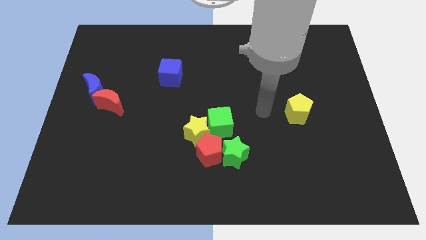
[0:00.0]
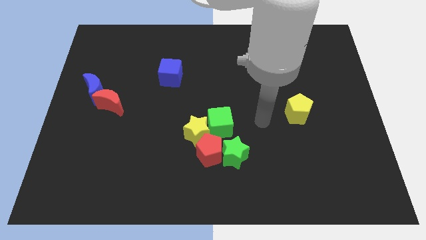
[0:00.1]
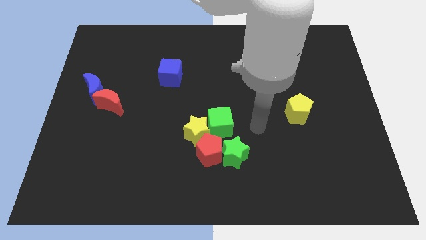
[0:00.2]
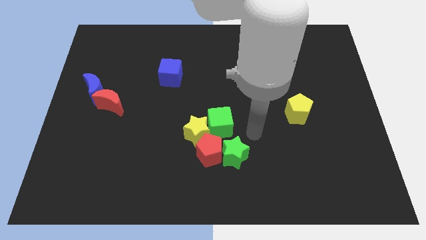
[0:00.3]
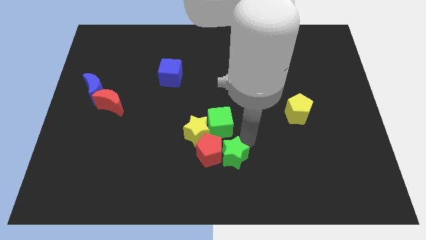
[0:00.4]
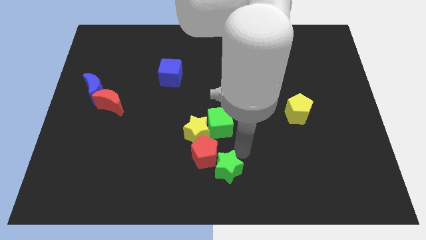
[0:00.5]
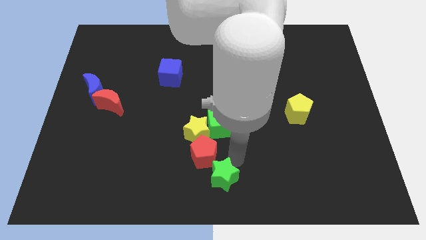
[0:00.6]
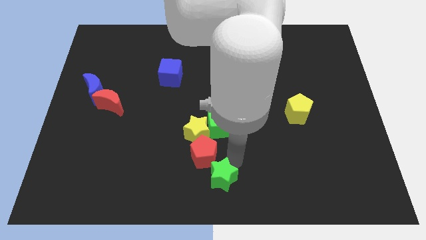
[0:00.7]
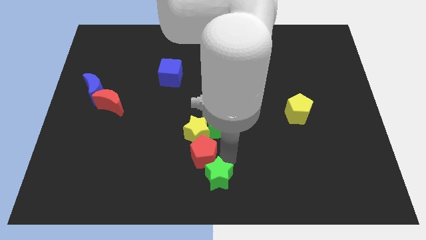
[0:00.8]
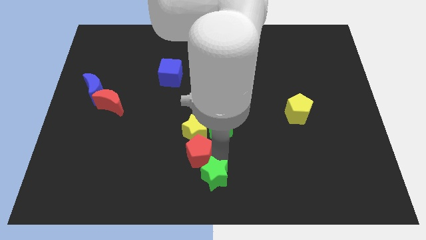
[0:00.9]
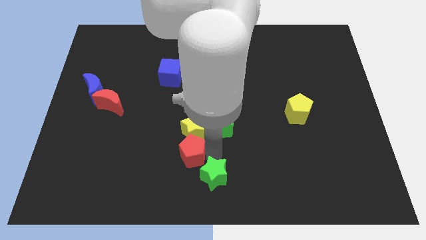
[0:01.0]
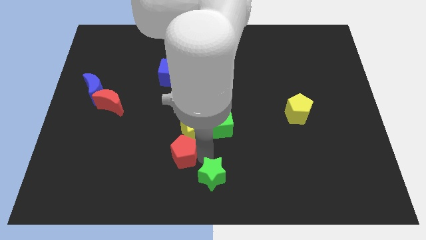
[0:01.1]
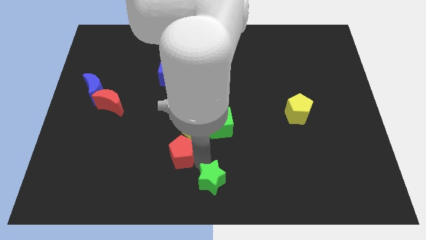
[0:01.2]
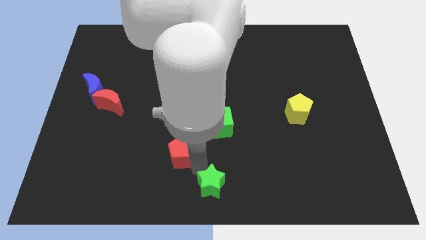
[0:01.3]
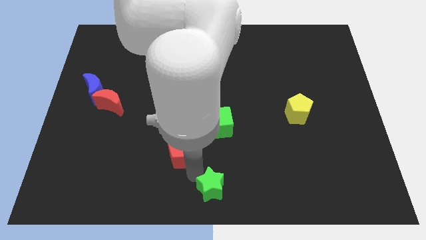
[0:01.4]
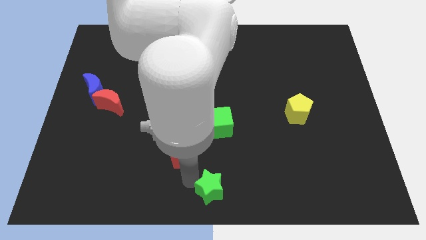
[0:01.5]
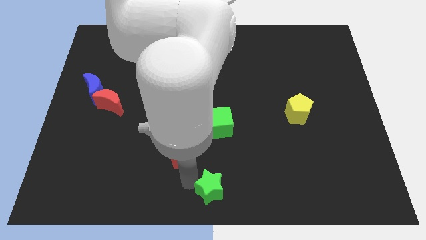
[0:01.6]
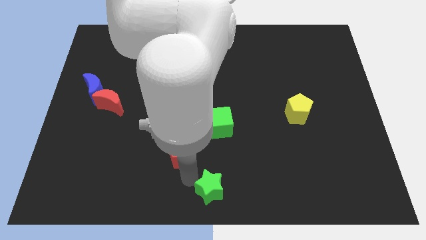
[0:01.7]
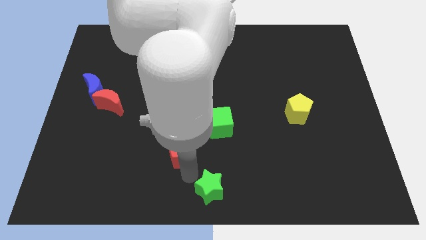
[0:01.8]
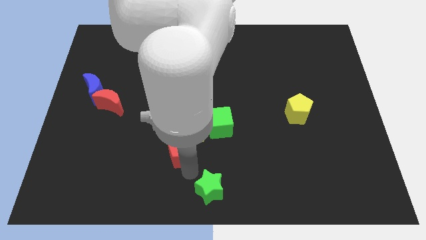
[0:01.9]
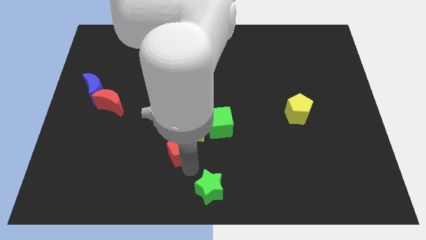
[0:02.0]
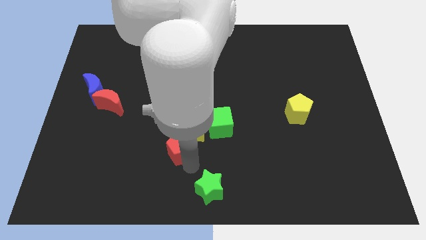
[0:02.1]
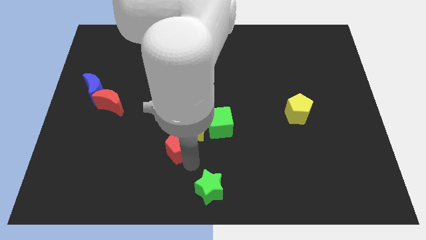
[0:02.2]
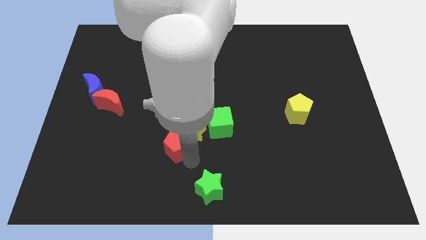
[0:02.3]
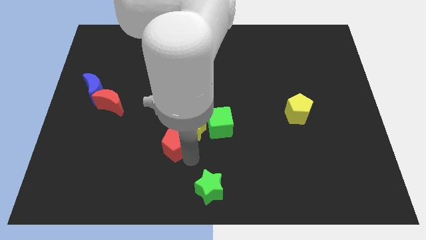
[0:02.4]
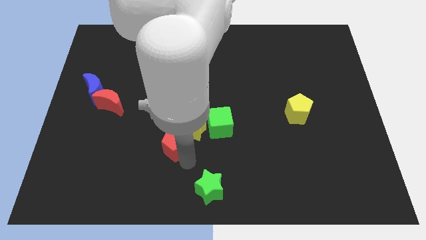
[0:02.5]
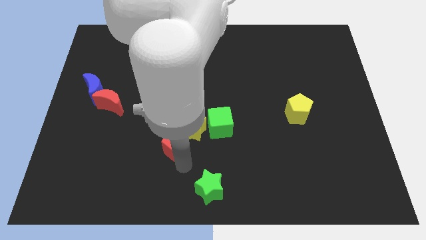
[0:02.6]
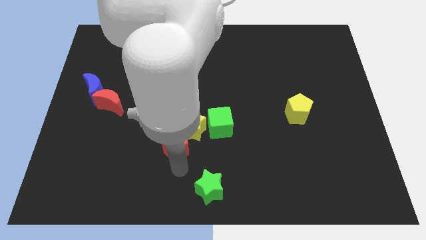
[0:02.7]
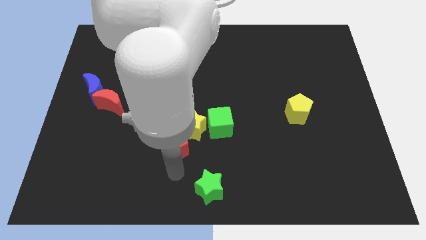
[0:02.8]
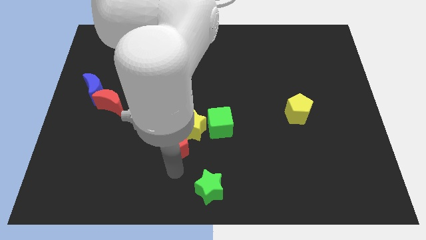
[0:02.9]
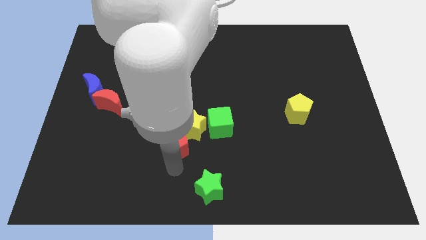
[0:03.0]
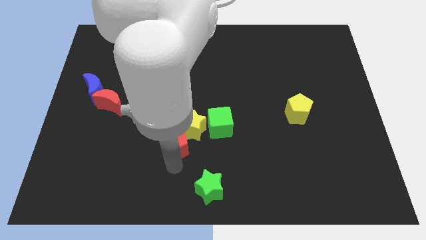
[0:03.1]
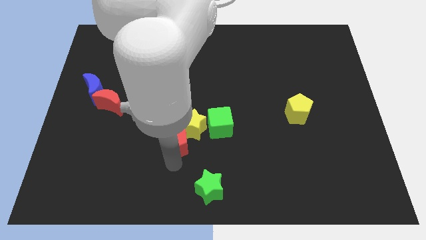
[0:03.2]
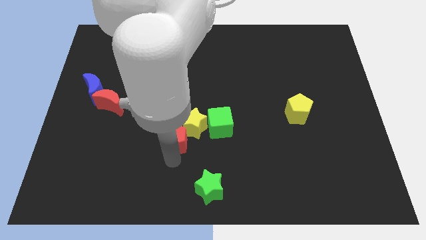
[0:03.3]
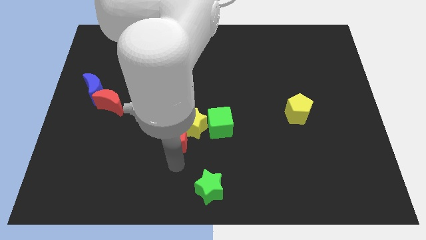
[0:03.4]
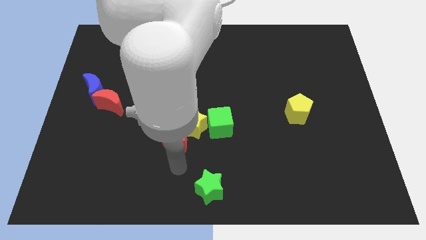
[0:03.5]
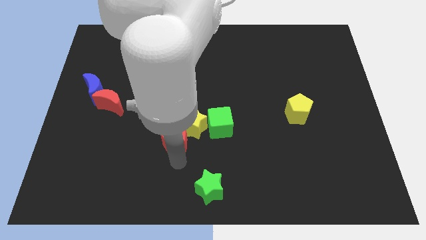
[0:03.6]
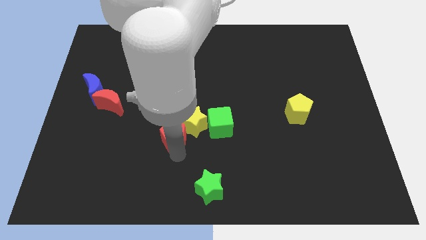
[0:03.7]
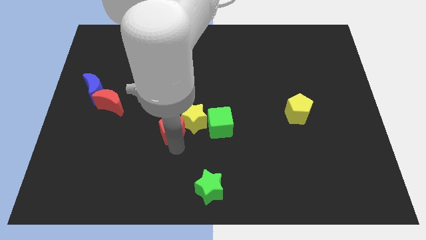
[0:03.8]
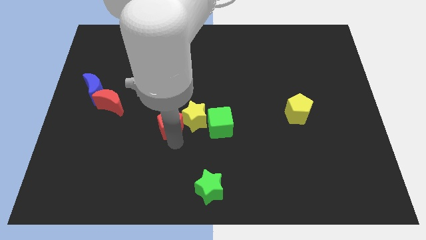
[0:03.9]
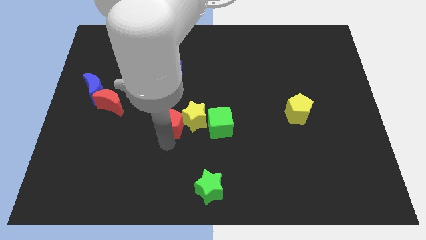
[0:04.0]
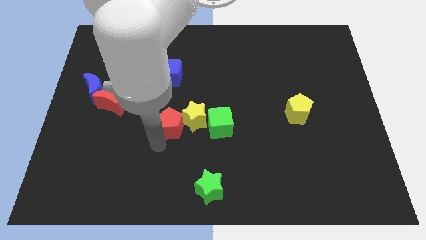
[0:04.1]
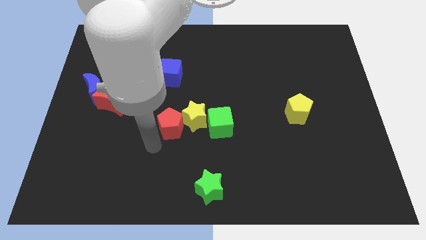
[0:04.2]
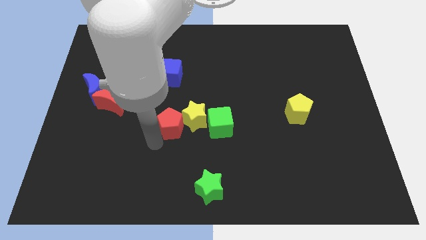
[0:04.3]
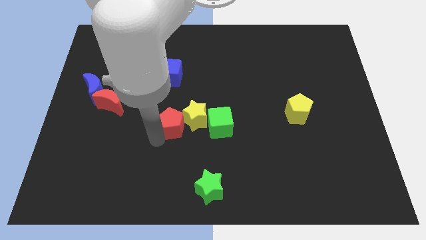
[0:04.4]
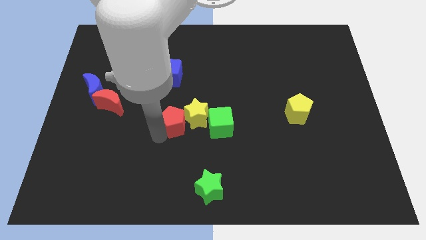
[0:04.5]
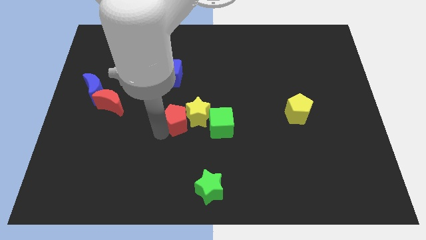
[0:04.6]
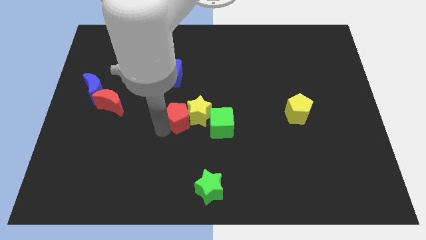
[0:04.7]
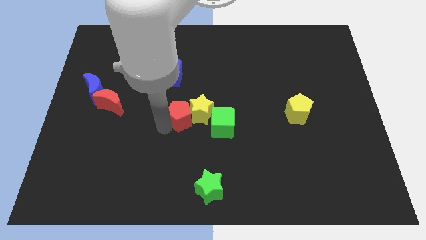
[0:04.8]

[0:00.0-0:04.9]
slightly slide the red pentagon up

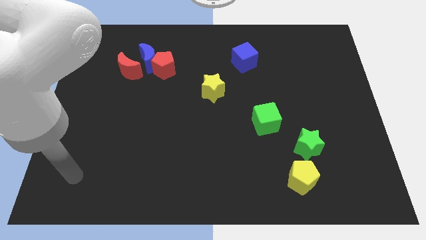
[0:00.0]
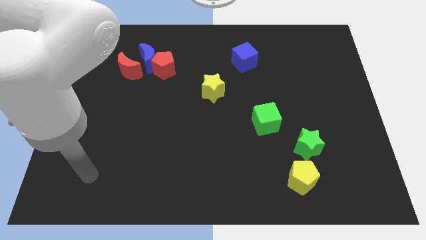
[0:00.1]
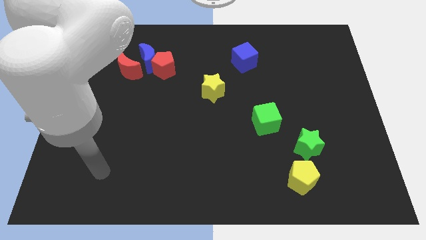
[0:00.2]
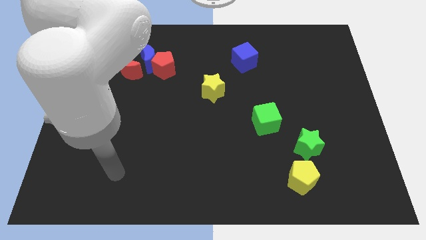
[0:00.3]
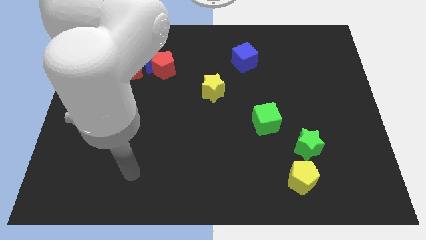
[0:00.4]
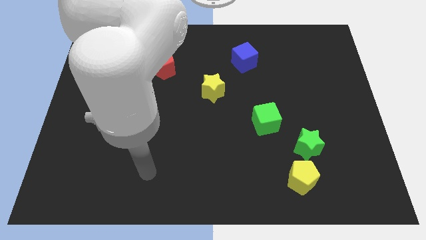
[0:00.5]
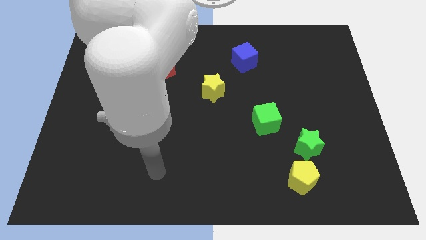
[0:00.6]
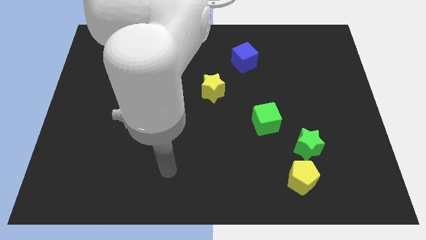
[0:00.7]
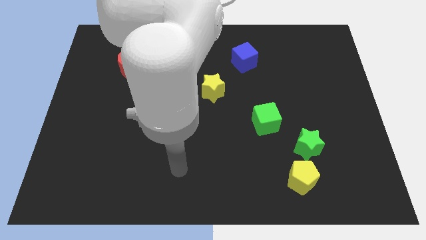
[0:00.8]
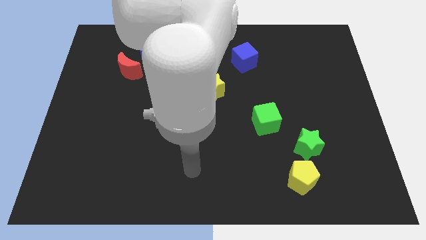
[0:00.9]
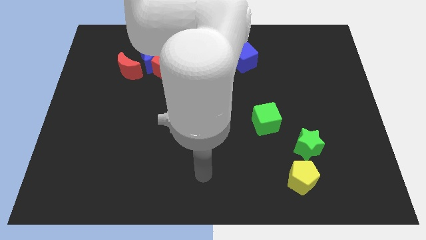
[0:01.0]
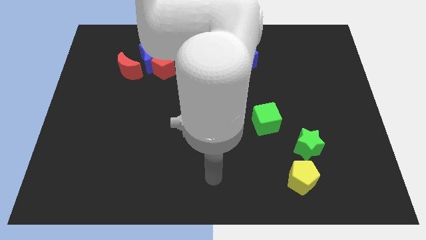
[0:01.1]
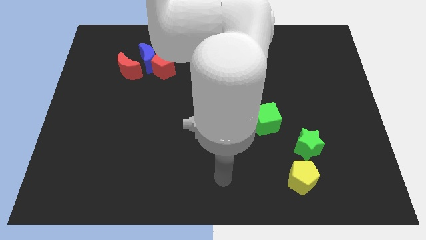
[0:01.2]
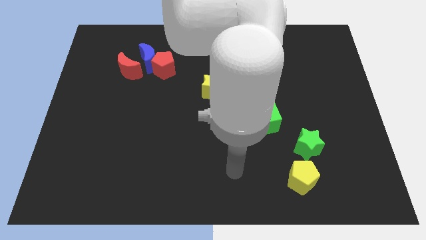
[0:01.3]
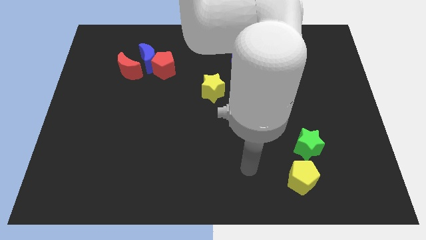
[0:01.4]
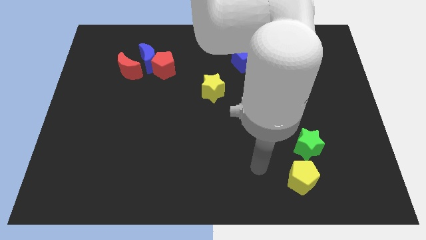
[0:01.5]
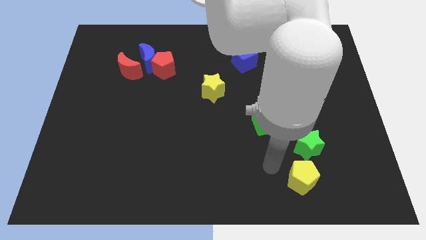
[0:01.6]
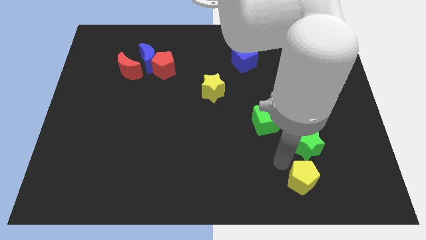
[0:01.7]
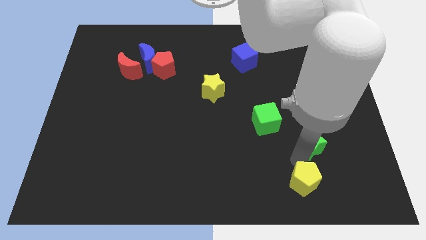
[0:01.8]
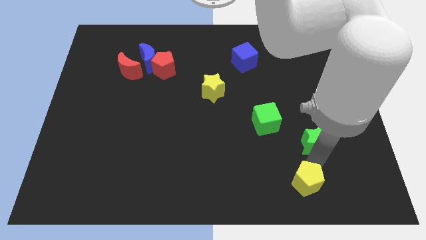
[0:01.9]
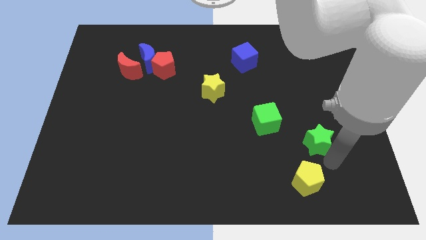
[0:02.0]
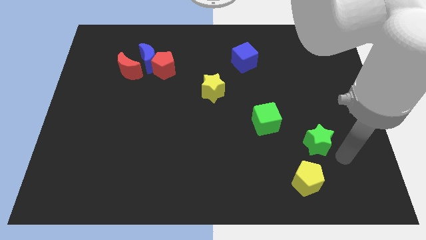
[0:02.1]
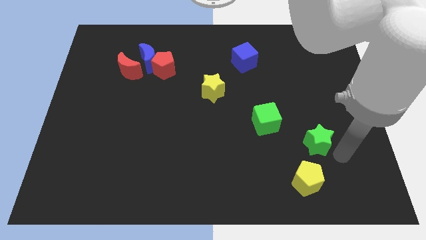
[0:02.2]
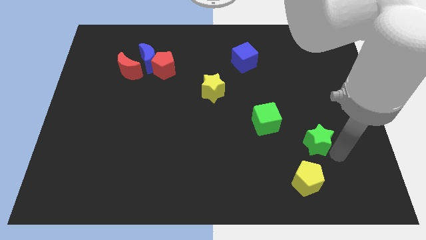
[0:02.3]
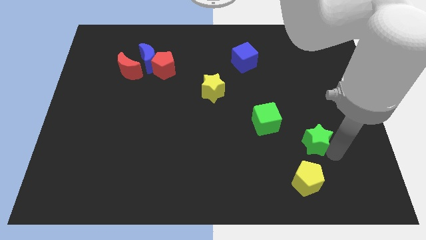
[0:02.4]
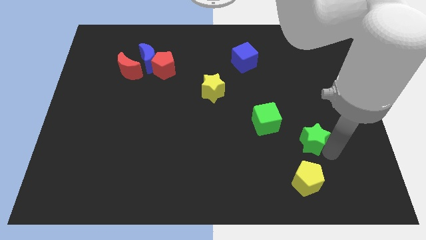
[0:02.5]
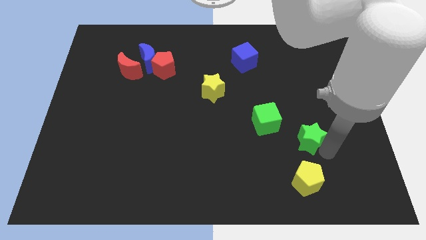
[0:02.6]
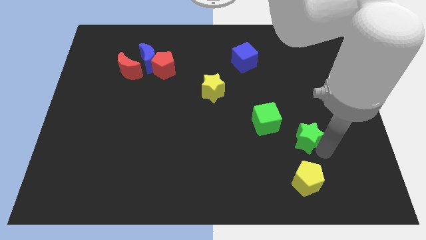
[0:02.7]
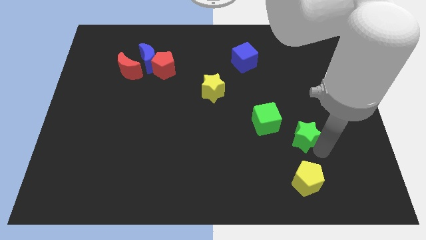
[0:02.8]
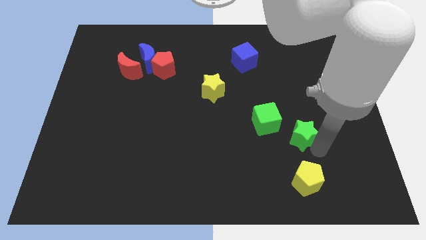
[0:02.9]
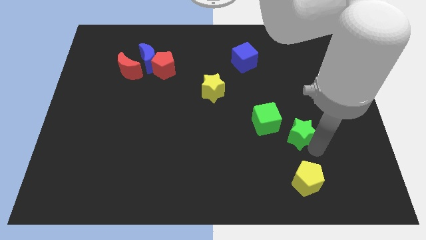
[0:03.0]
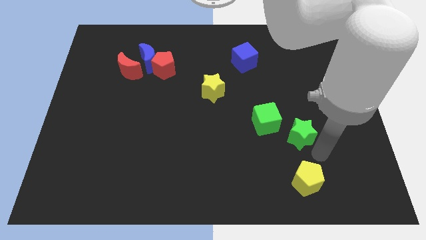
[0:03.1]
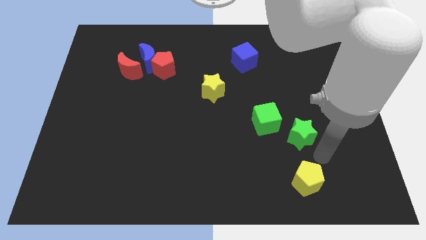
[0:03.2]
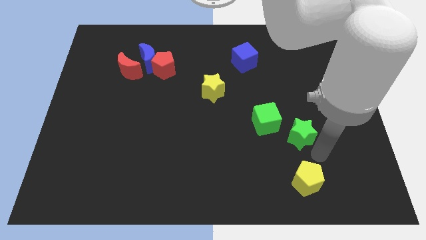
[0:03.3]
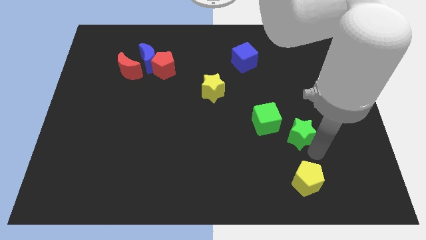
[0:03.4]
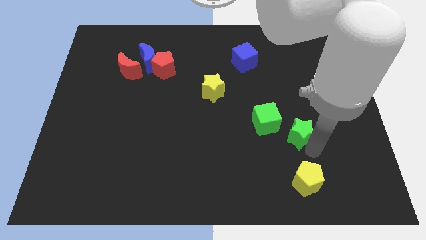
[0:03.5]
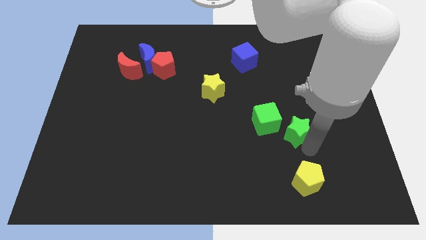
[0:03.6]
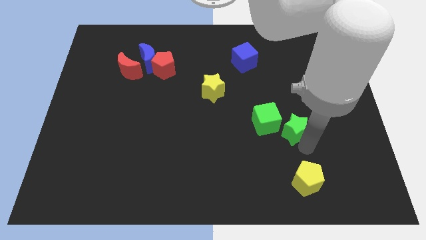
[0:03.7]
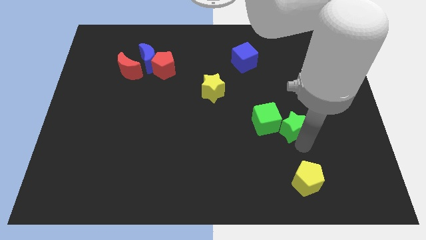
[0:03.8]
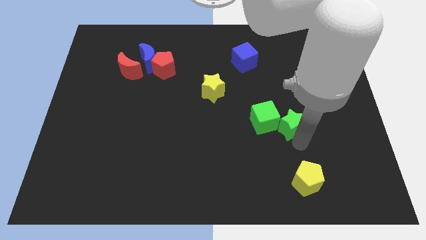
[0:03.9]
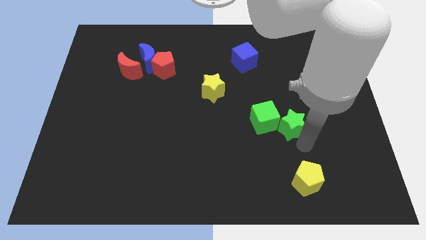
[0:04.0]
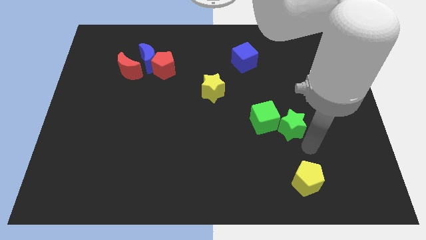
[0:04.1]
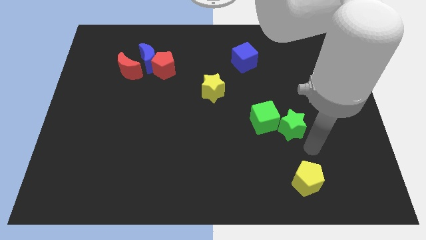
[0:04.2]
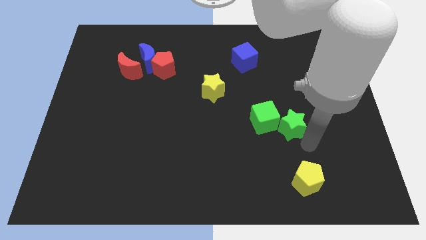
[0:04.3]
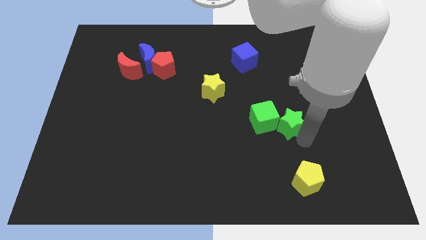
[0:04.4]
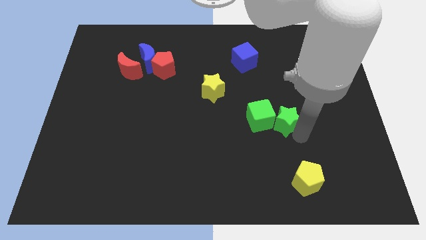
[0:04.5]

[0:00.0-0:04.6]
push the green star up and then to the left a bit
